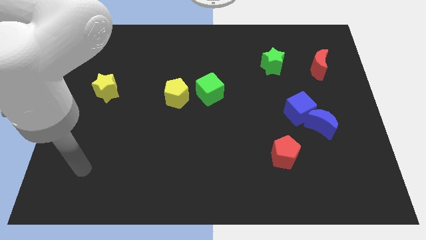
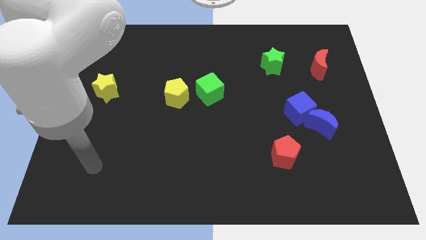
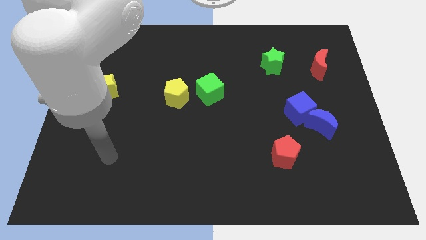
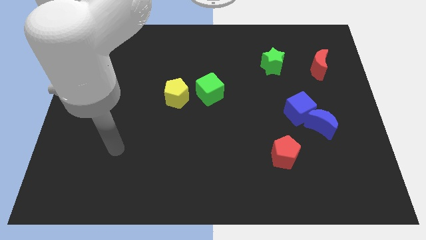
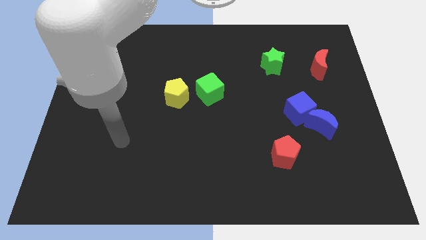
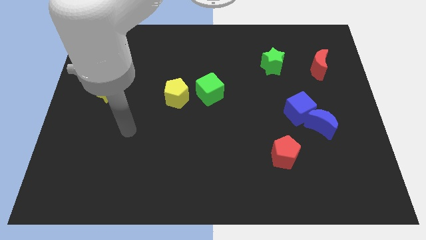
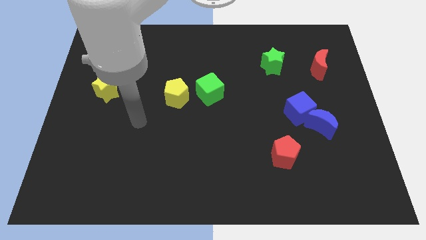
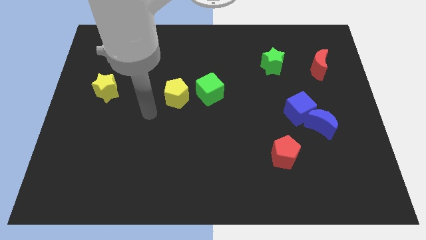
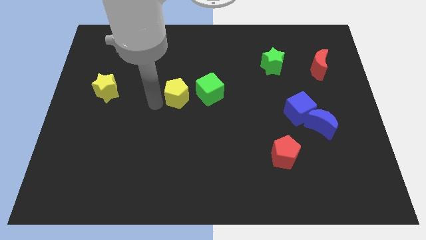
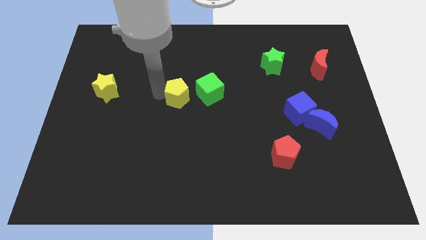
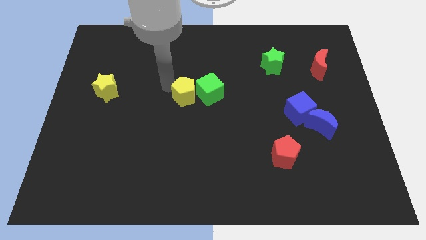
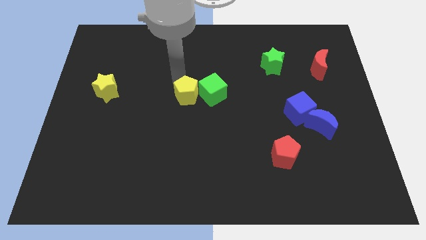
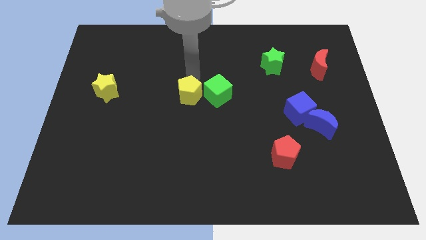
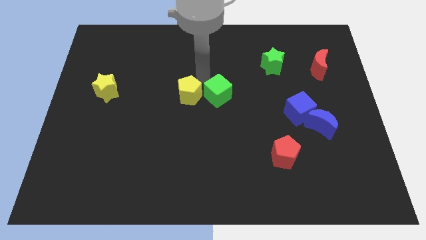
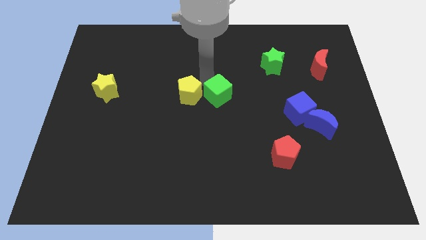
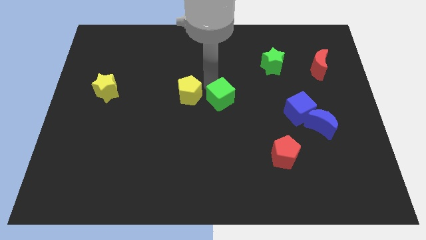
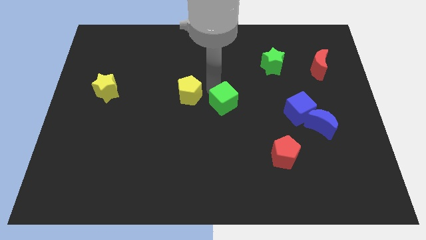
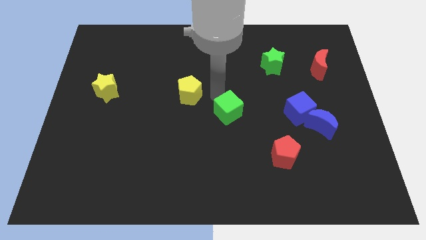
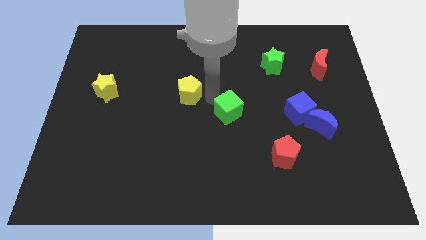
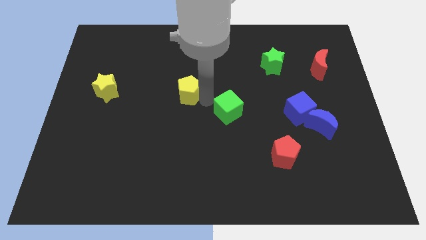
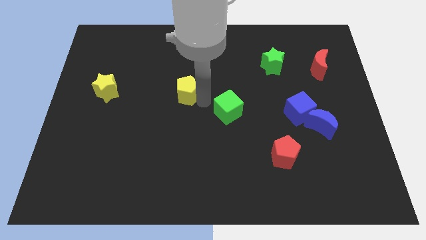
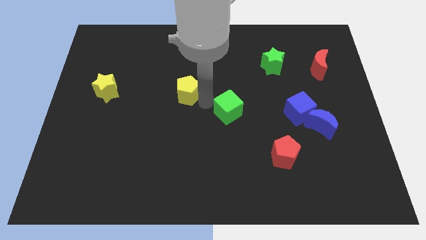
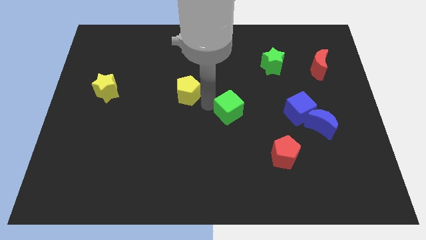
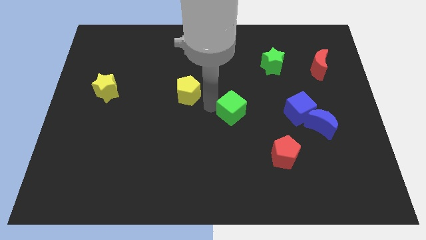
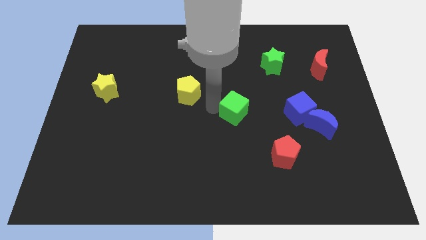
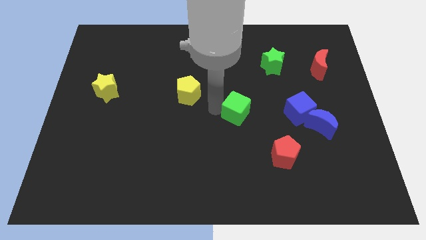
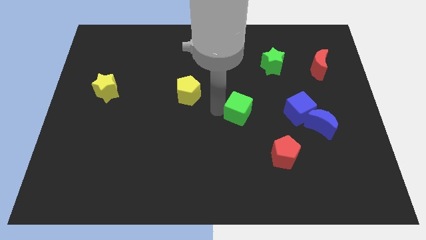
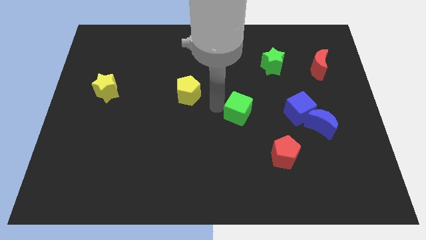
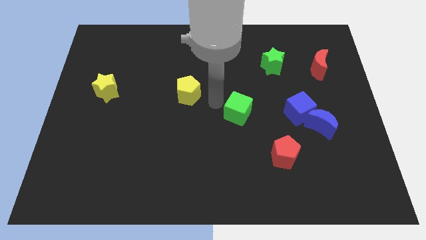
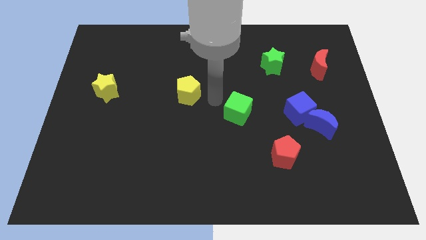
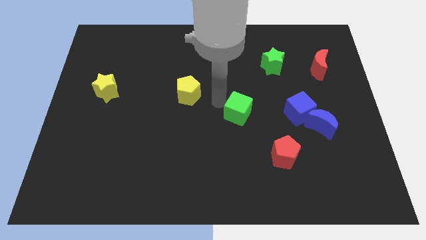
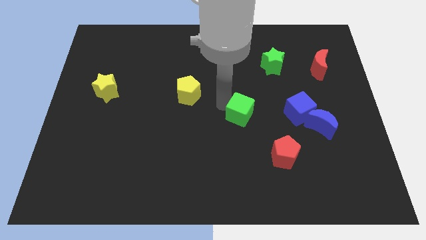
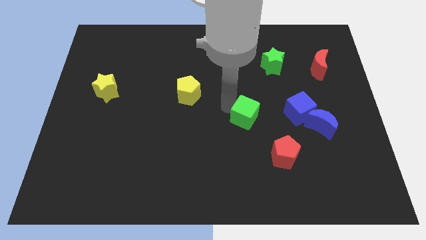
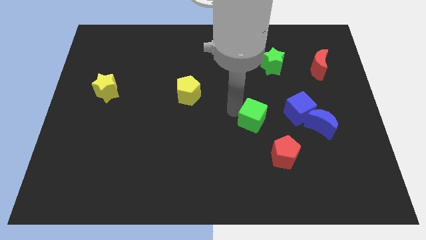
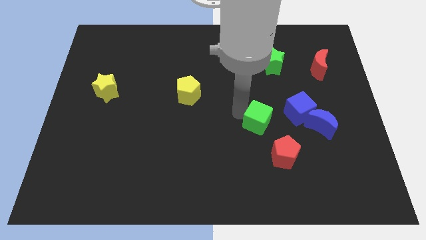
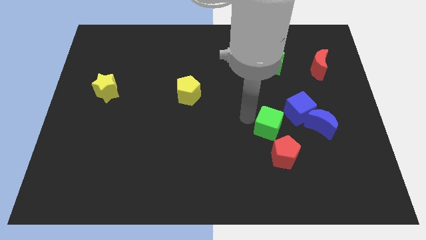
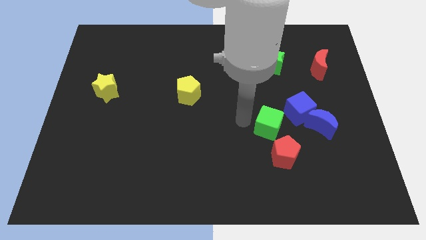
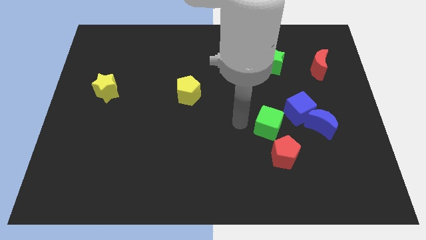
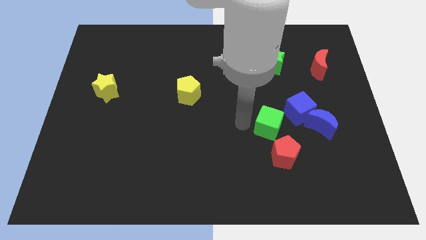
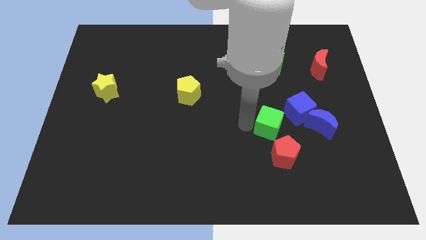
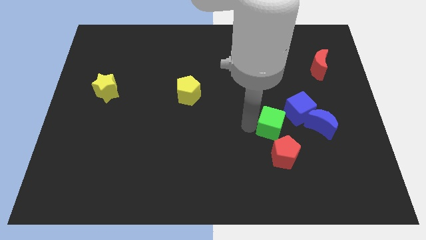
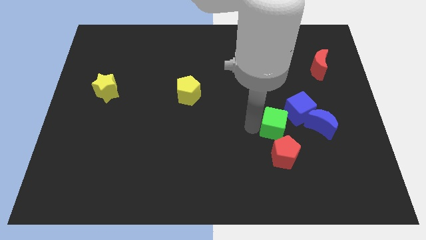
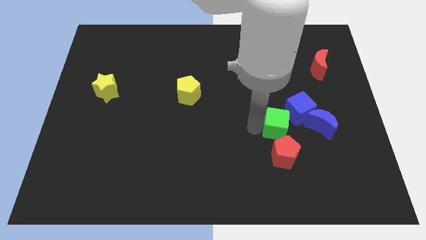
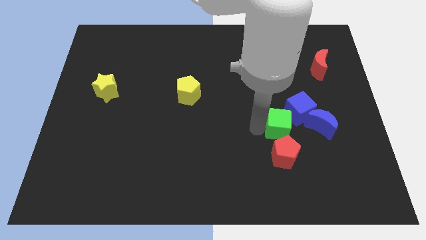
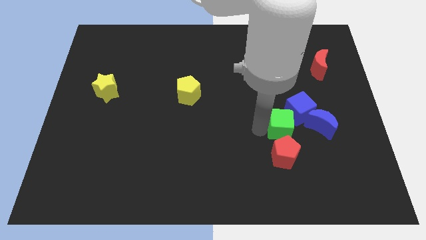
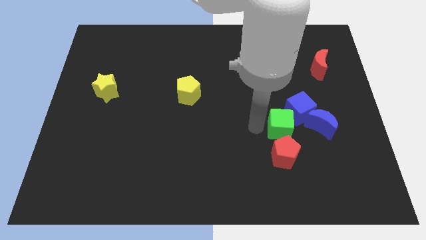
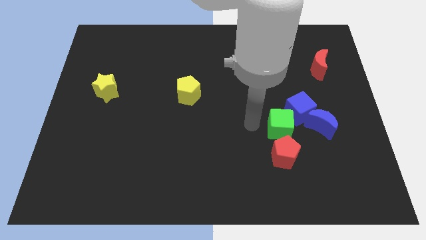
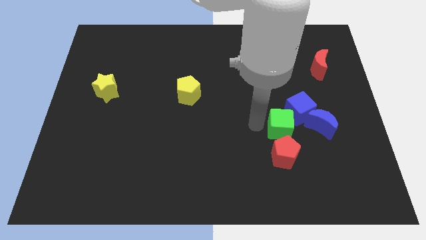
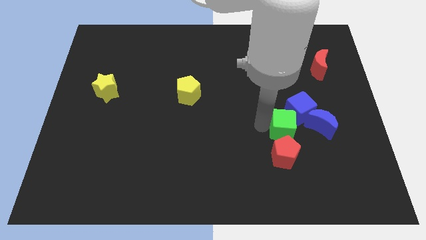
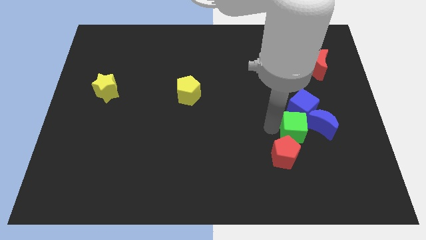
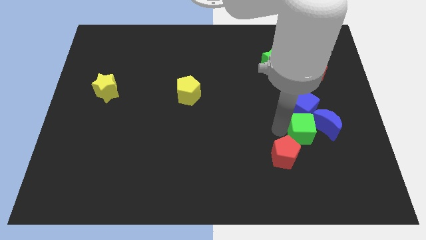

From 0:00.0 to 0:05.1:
move the green cube close to the blue moon

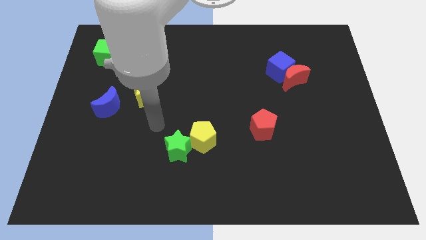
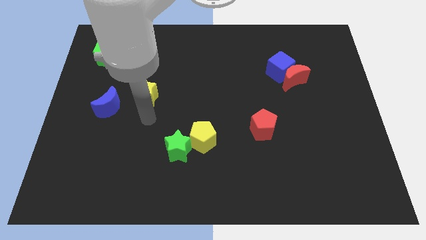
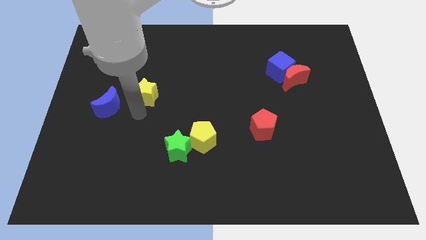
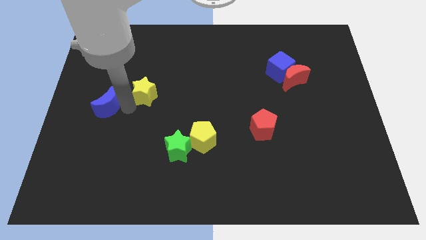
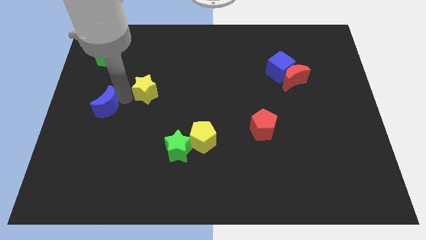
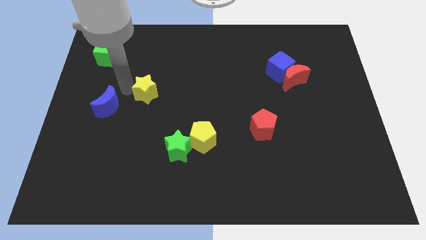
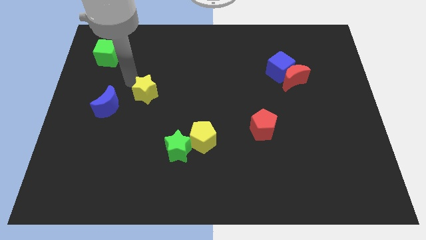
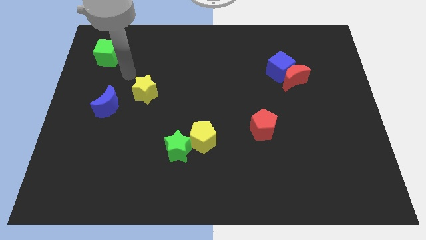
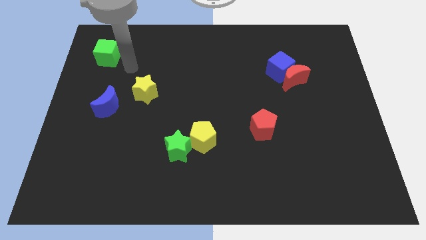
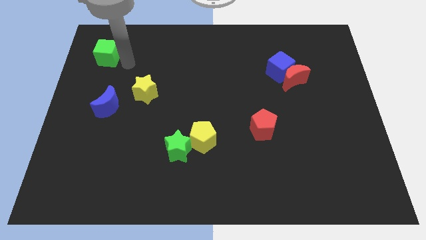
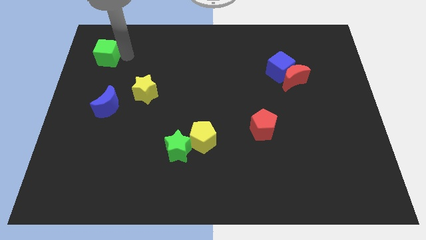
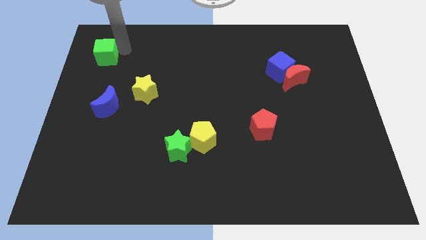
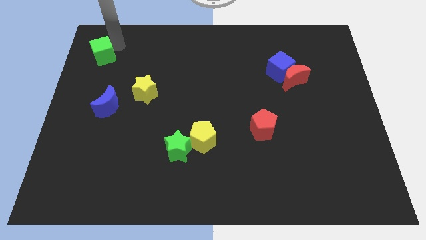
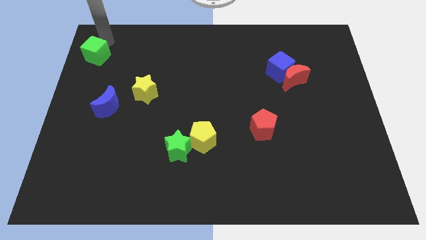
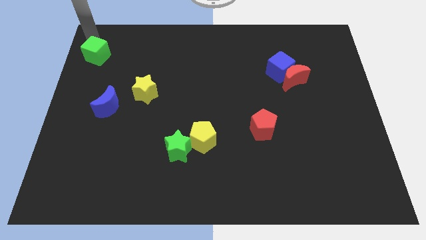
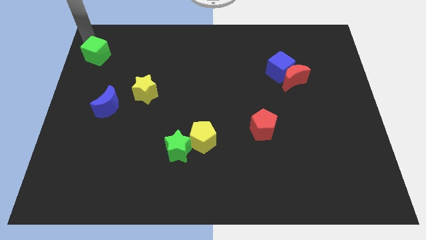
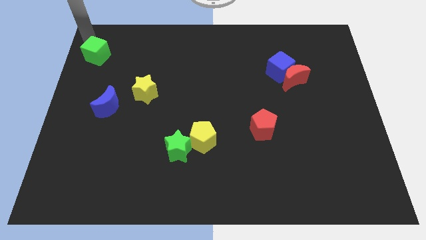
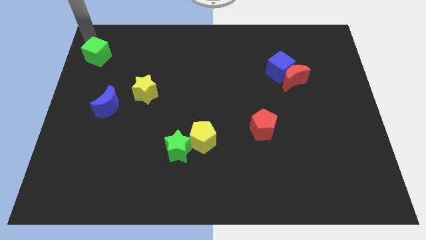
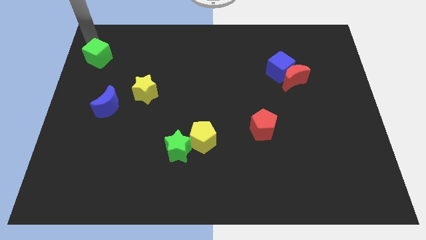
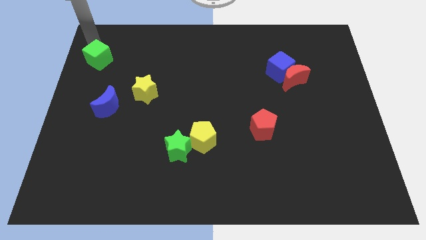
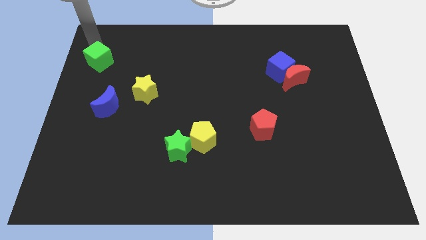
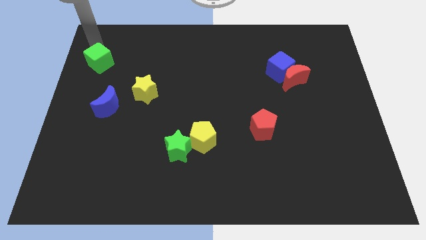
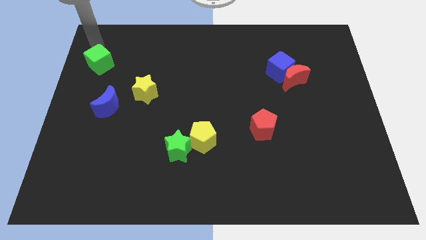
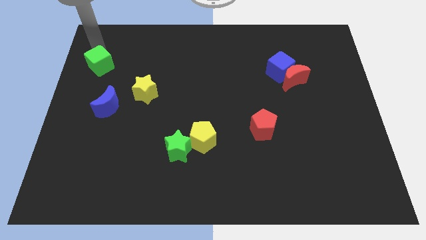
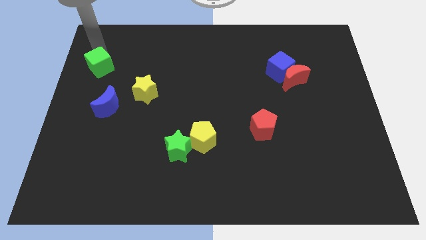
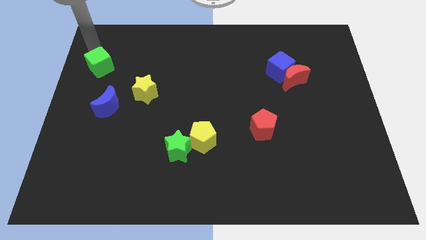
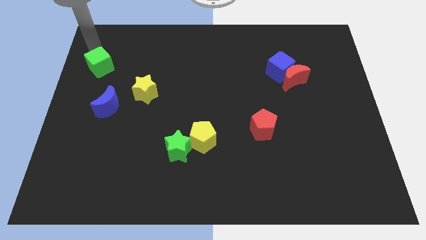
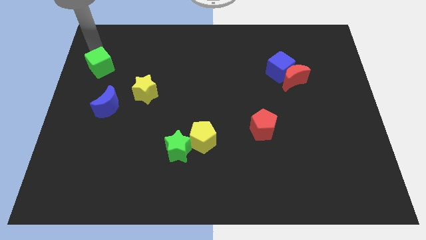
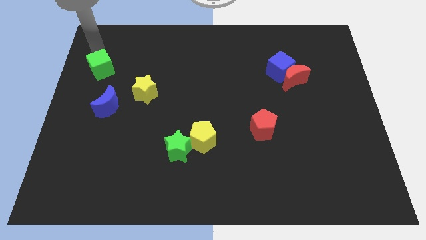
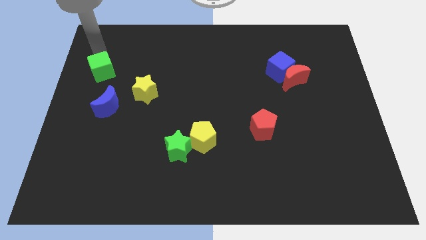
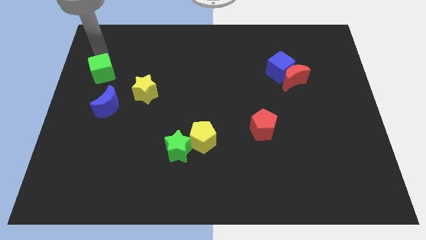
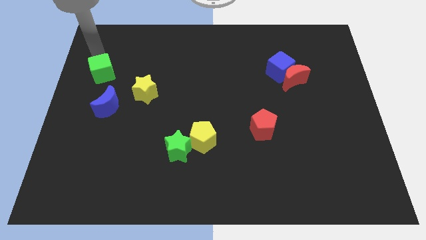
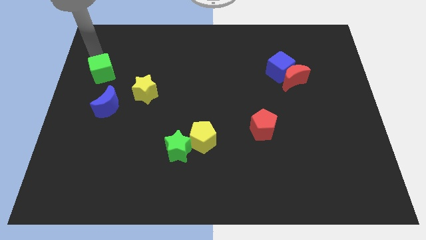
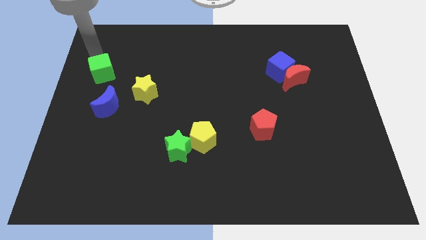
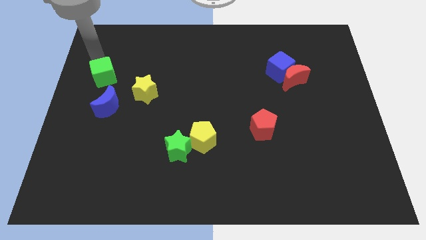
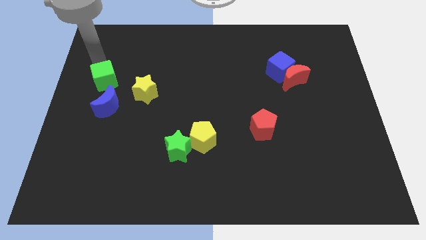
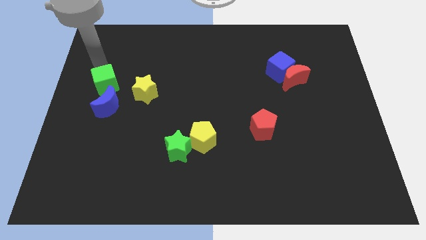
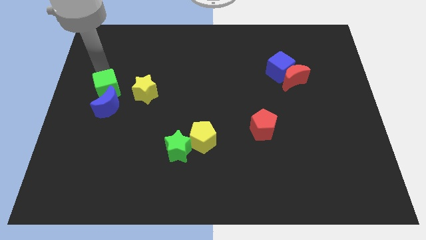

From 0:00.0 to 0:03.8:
put the green cube towards the blue moon
